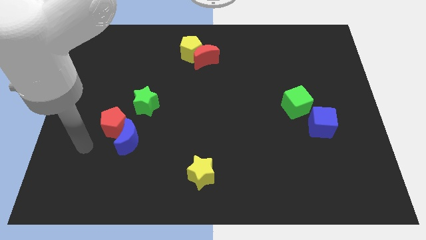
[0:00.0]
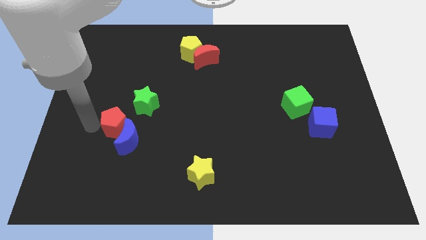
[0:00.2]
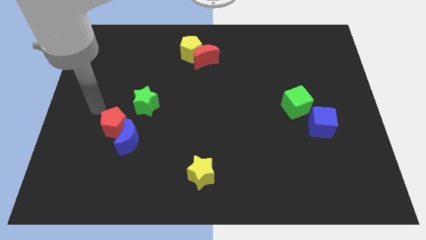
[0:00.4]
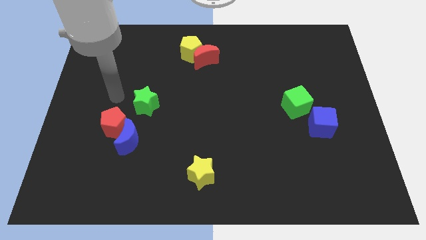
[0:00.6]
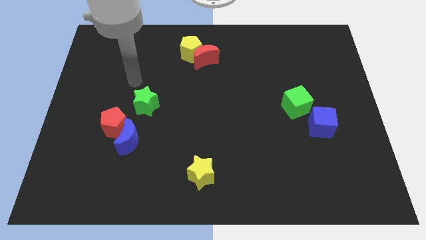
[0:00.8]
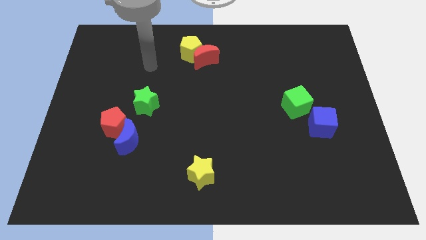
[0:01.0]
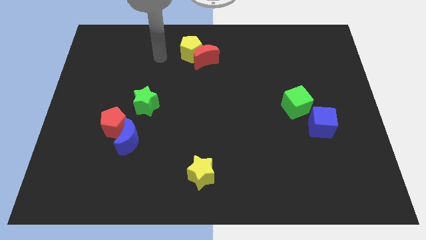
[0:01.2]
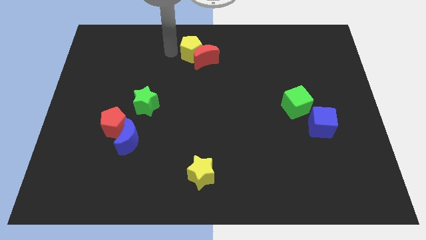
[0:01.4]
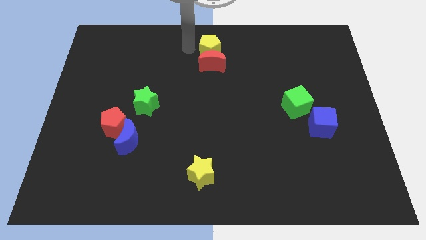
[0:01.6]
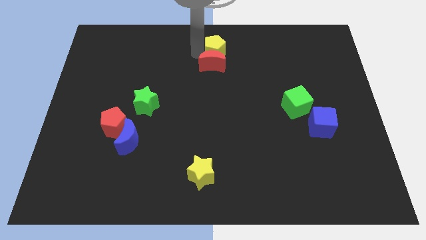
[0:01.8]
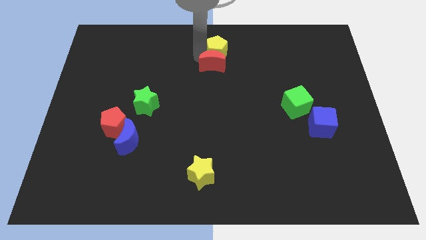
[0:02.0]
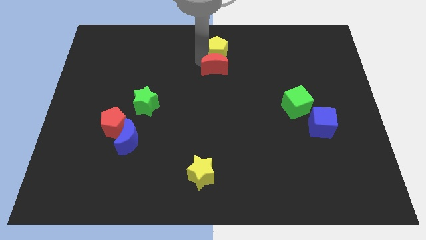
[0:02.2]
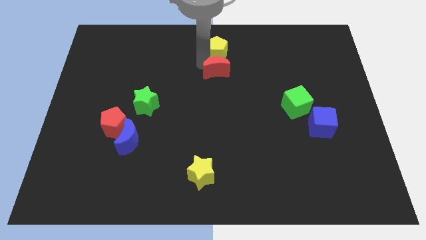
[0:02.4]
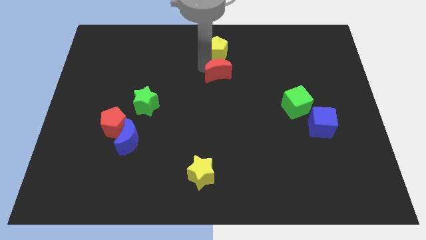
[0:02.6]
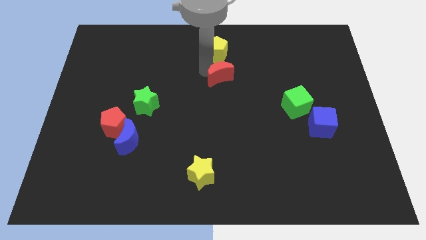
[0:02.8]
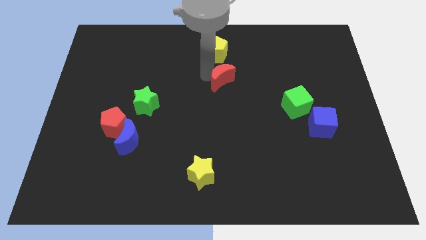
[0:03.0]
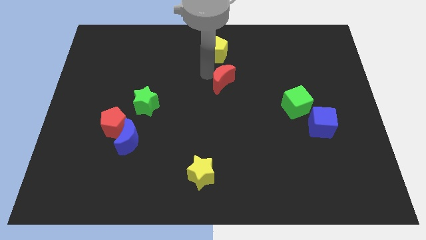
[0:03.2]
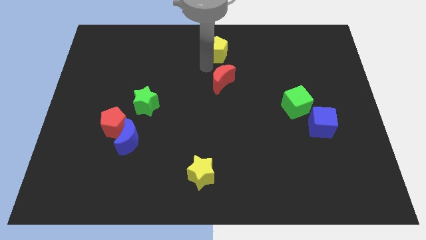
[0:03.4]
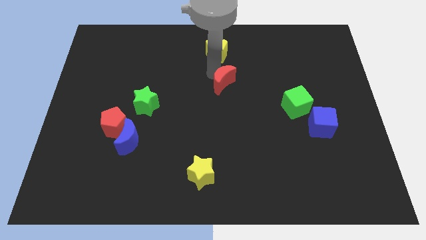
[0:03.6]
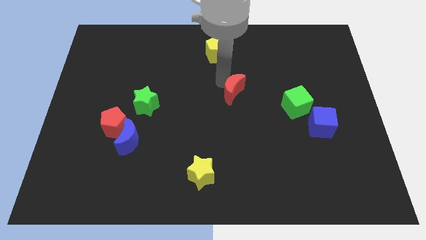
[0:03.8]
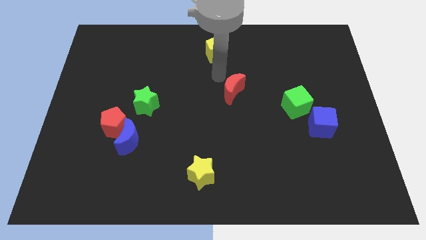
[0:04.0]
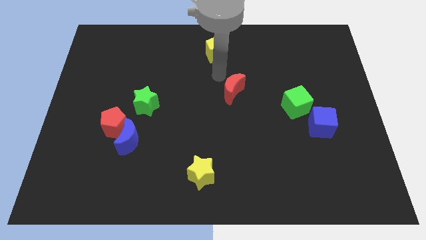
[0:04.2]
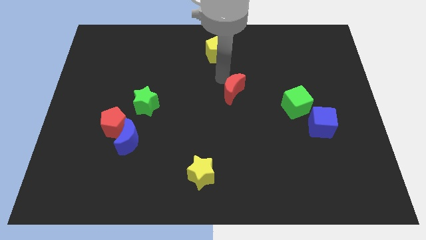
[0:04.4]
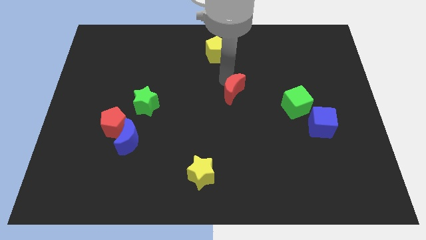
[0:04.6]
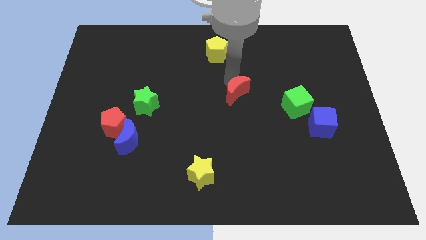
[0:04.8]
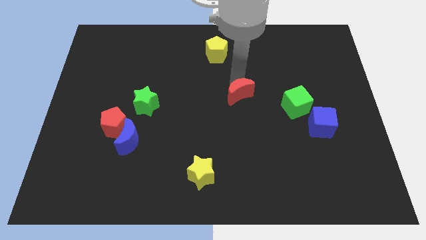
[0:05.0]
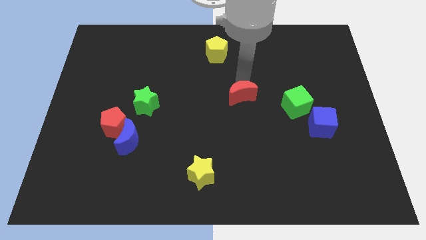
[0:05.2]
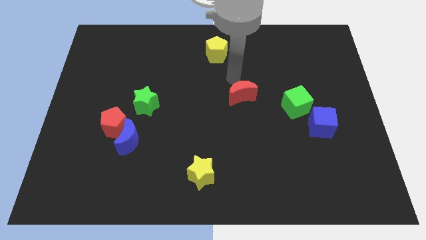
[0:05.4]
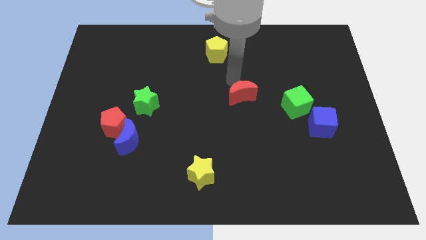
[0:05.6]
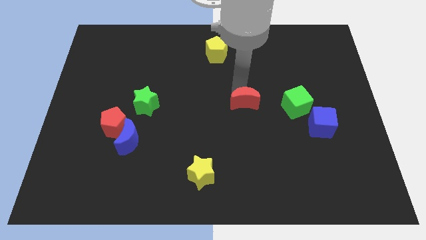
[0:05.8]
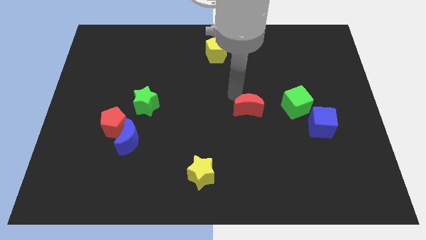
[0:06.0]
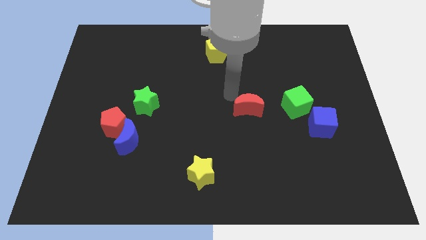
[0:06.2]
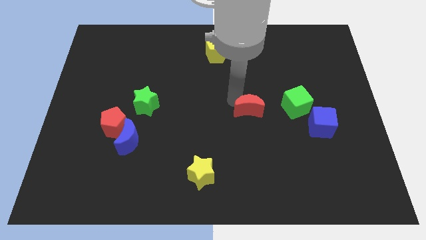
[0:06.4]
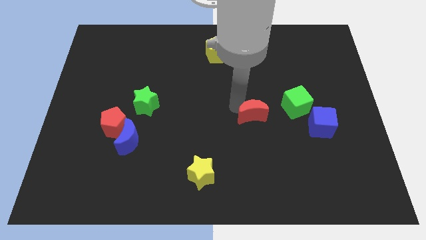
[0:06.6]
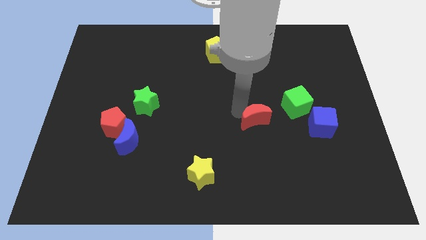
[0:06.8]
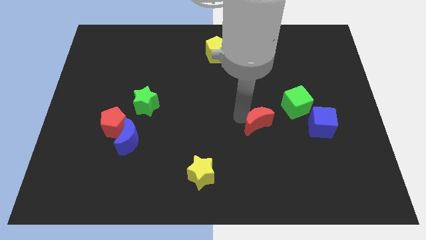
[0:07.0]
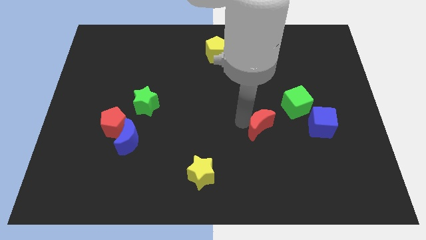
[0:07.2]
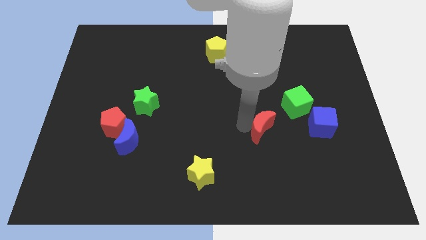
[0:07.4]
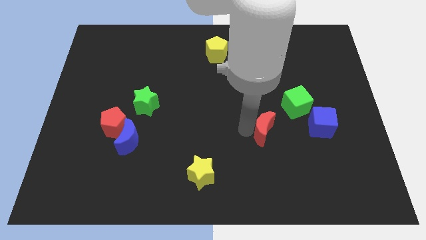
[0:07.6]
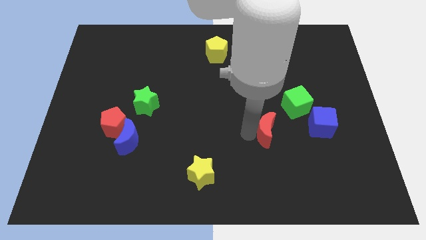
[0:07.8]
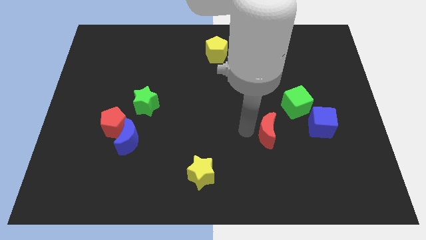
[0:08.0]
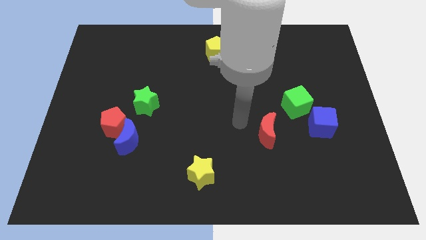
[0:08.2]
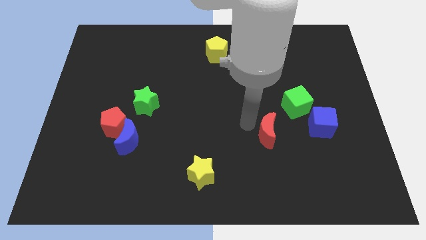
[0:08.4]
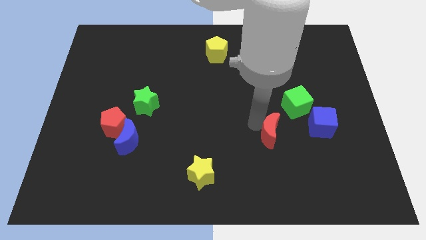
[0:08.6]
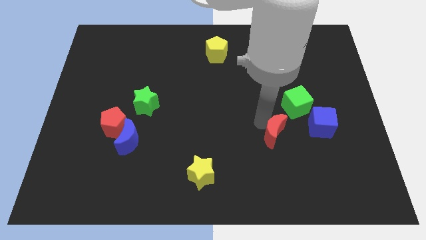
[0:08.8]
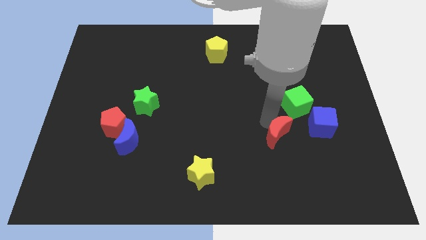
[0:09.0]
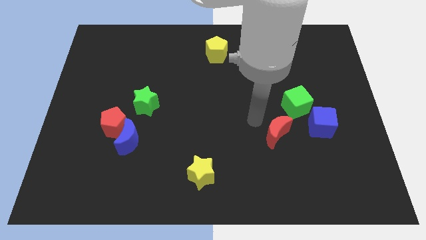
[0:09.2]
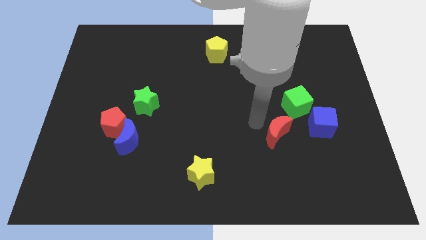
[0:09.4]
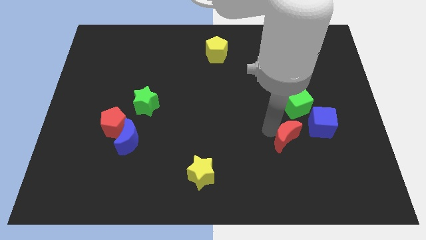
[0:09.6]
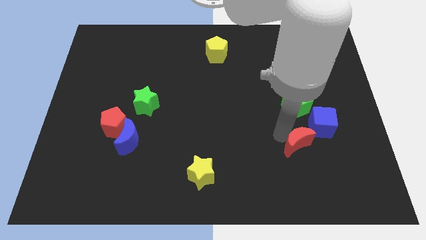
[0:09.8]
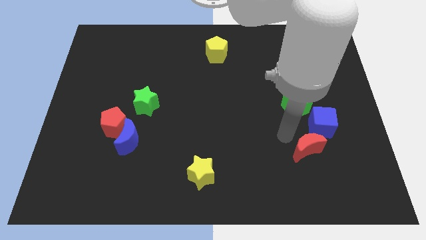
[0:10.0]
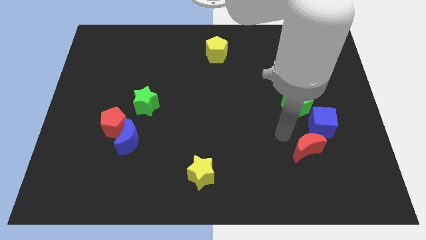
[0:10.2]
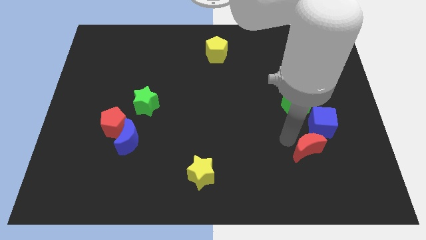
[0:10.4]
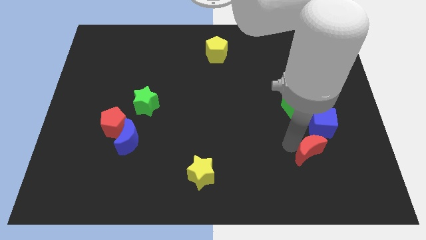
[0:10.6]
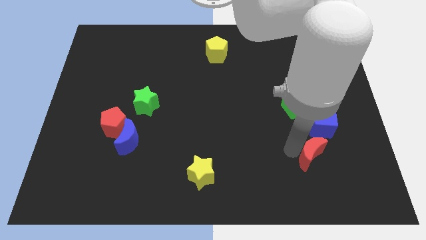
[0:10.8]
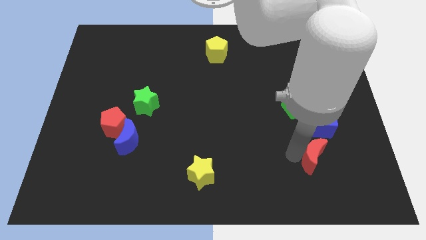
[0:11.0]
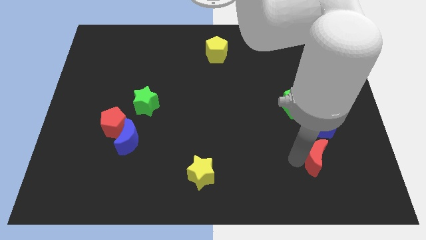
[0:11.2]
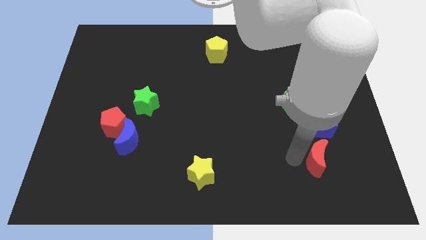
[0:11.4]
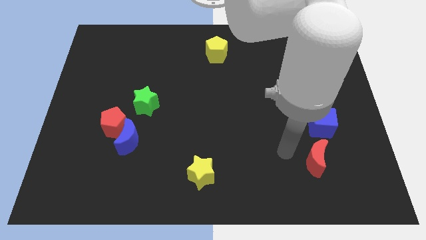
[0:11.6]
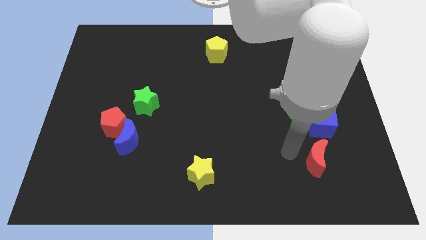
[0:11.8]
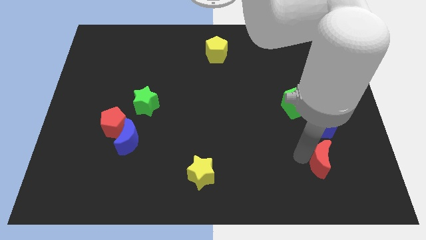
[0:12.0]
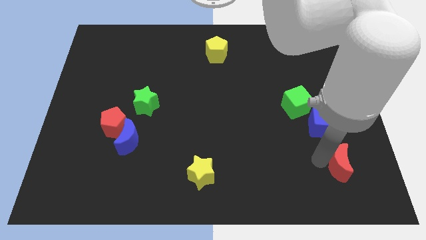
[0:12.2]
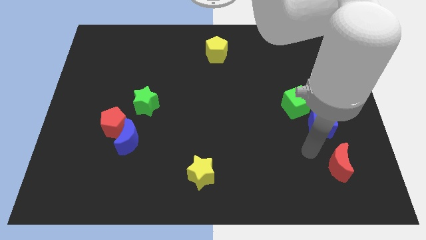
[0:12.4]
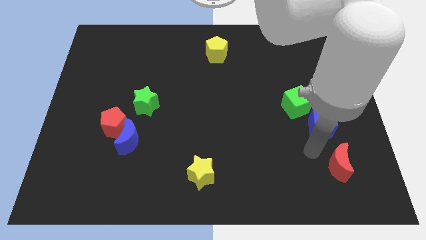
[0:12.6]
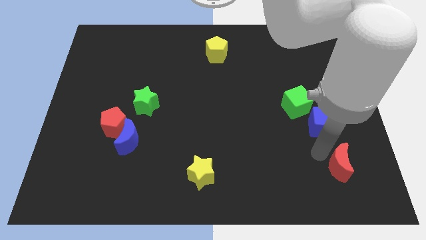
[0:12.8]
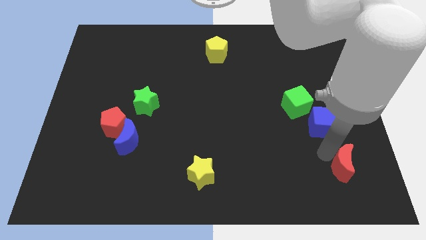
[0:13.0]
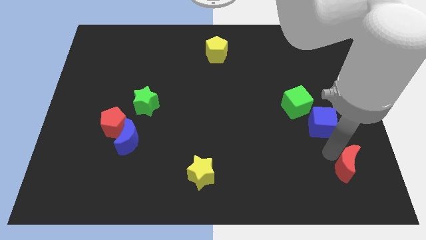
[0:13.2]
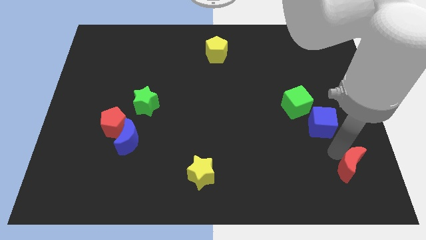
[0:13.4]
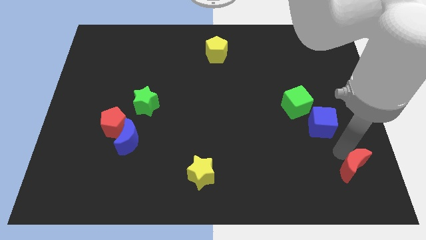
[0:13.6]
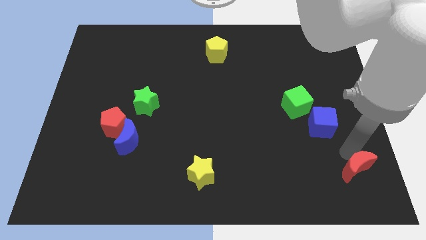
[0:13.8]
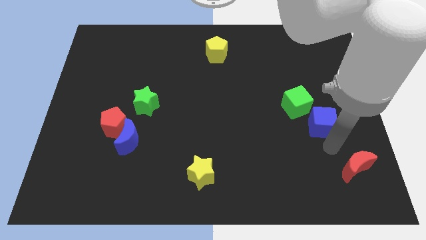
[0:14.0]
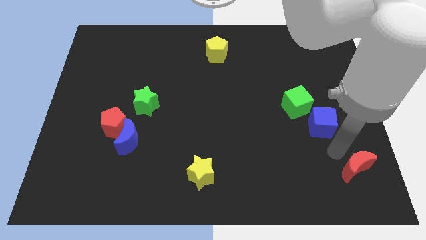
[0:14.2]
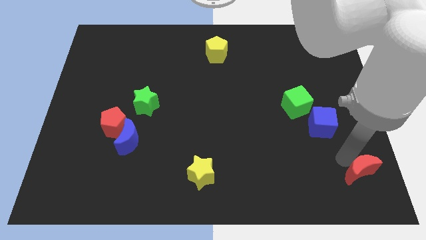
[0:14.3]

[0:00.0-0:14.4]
move the red moon to the bottom right of the board

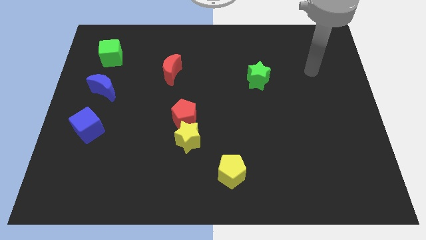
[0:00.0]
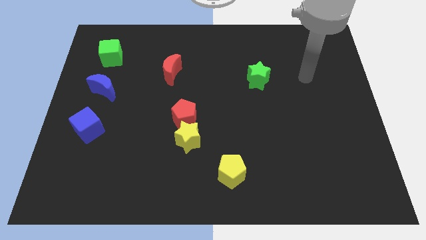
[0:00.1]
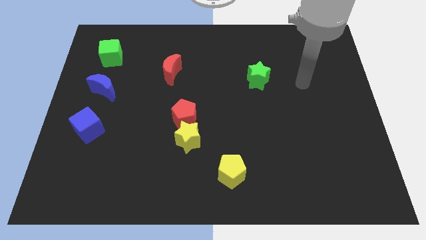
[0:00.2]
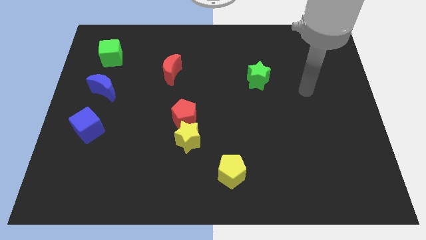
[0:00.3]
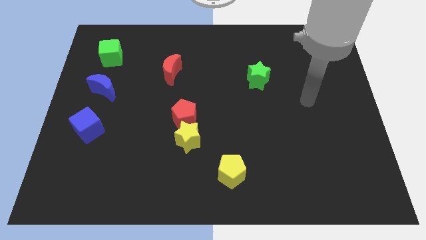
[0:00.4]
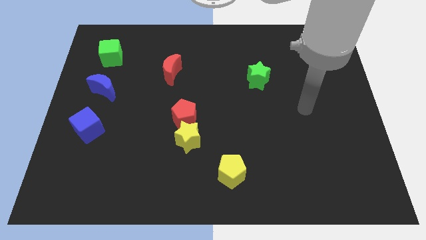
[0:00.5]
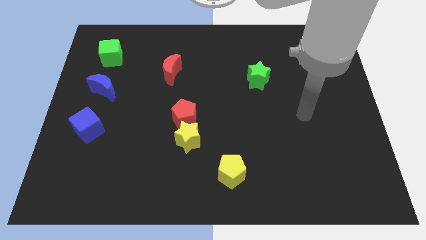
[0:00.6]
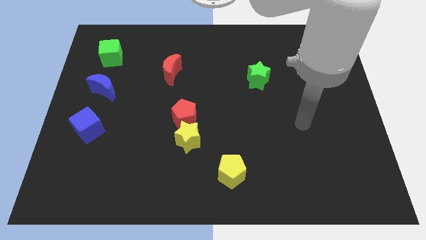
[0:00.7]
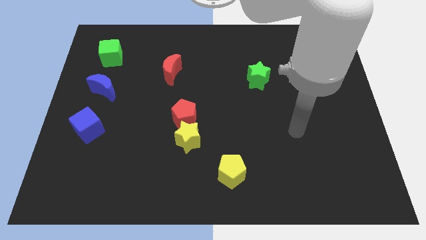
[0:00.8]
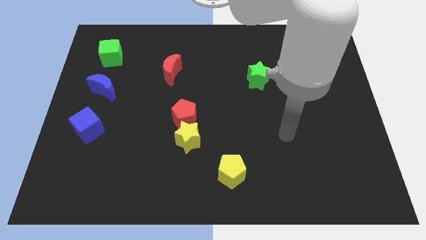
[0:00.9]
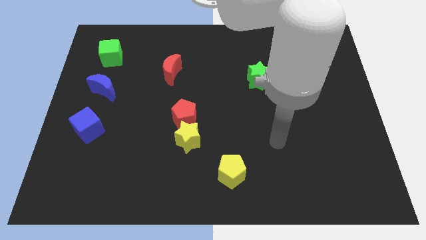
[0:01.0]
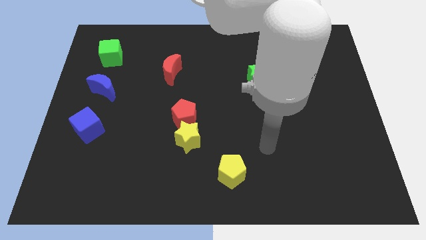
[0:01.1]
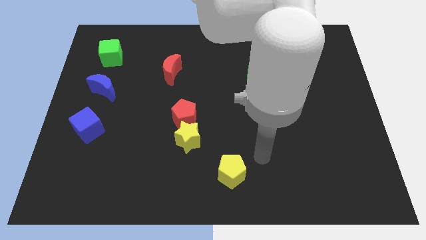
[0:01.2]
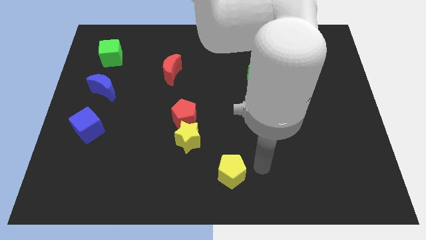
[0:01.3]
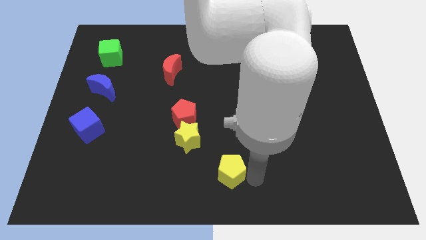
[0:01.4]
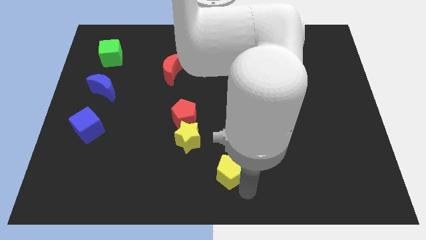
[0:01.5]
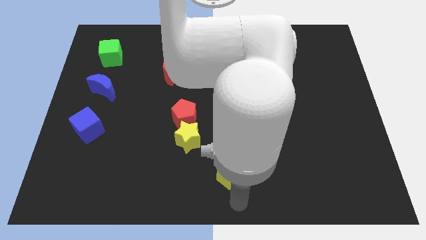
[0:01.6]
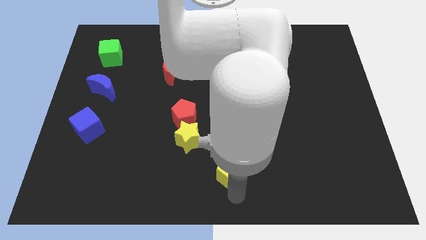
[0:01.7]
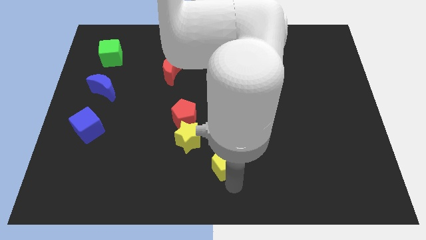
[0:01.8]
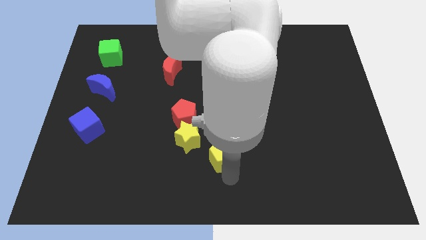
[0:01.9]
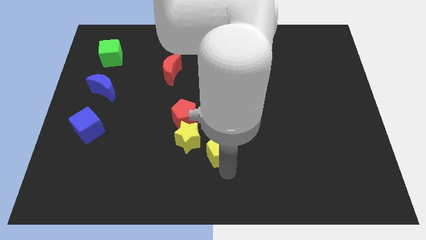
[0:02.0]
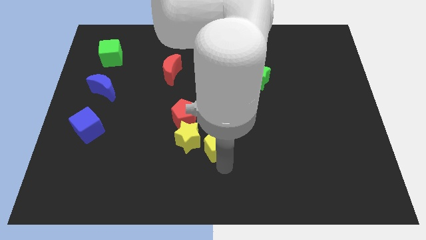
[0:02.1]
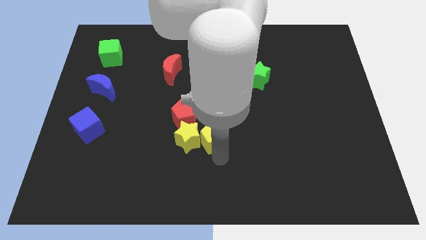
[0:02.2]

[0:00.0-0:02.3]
put the yellow pentagon to the middle of the board
